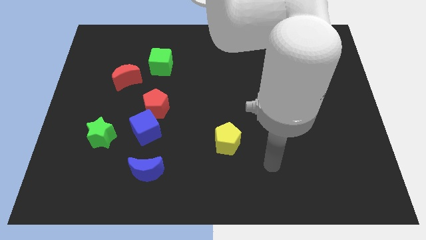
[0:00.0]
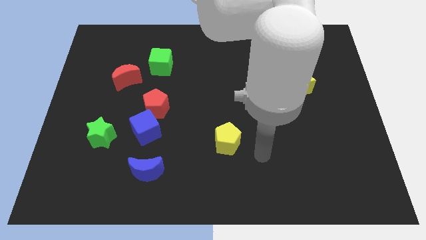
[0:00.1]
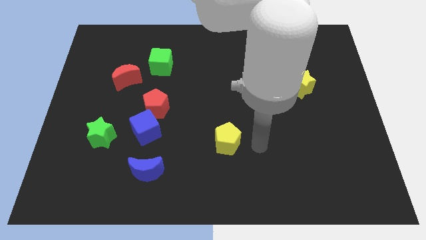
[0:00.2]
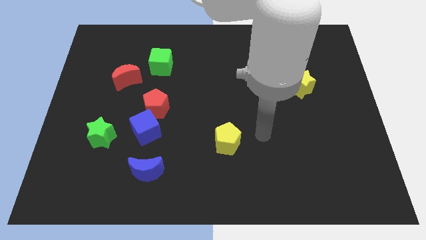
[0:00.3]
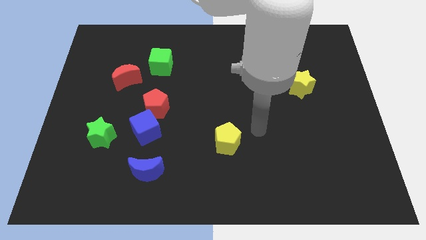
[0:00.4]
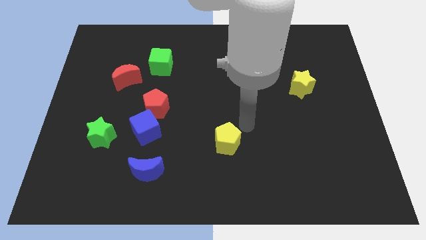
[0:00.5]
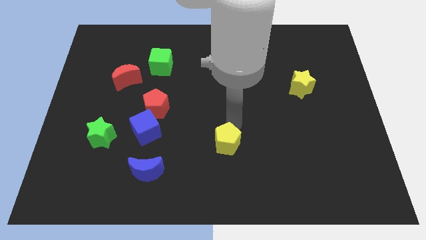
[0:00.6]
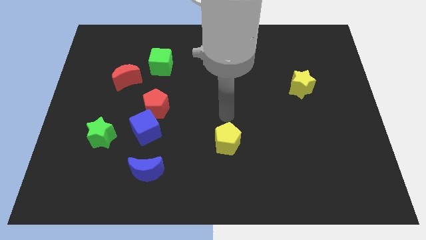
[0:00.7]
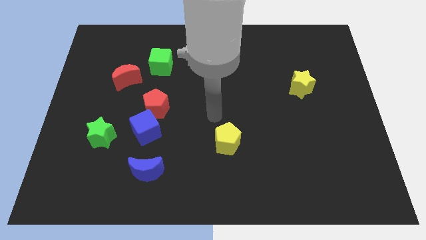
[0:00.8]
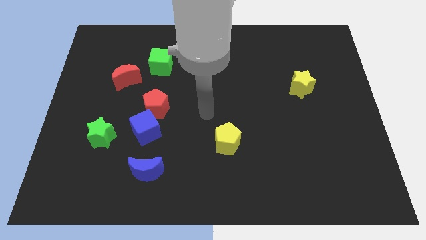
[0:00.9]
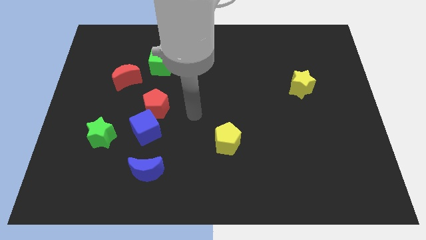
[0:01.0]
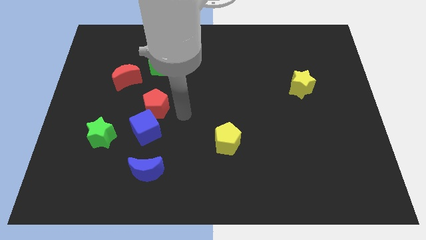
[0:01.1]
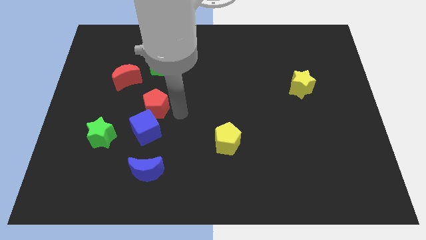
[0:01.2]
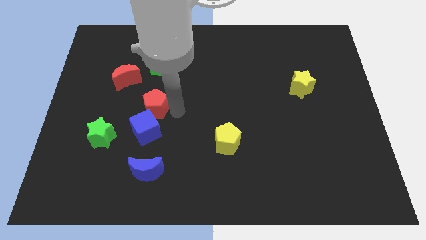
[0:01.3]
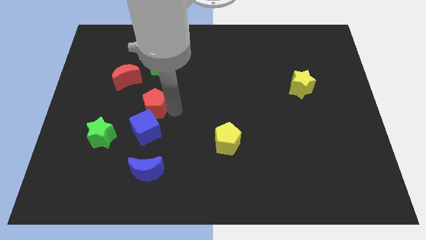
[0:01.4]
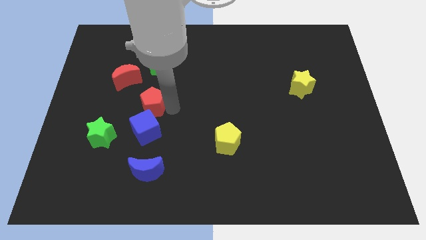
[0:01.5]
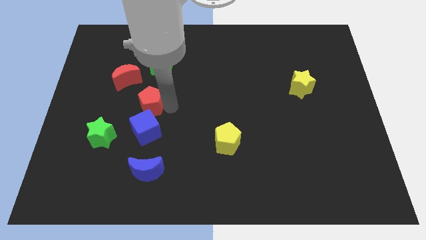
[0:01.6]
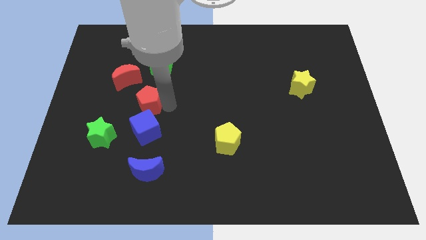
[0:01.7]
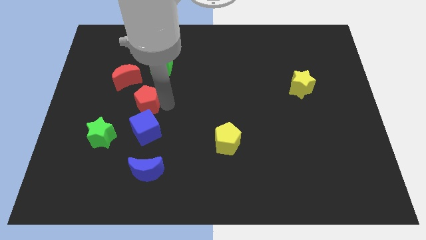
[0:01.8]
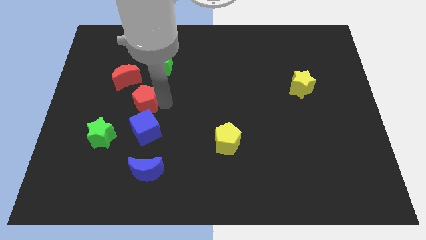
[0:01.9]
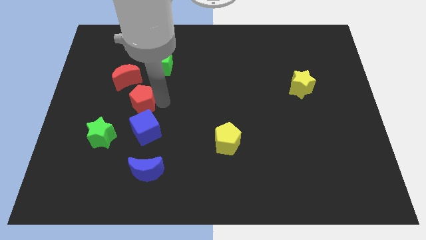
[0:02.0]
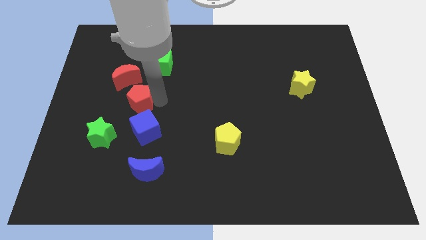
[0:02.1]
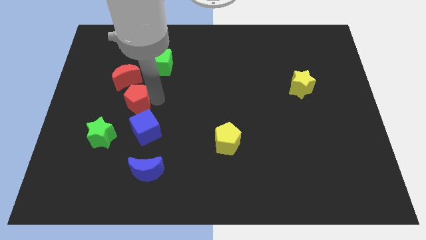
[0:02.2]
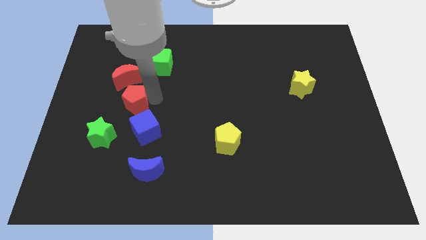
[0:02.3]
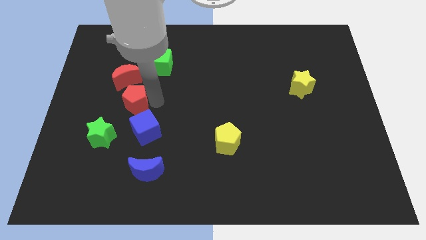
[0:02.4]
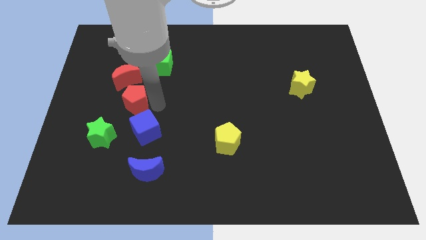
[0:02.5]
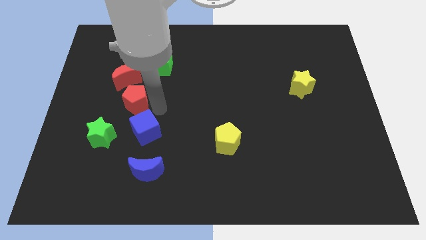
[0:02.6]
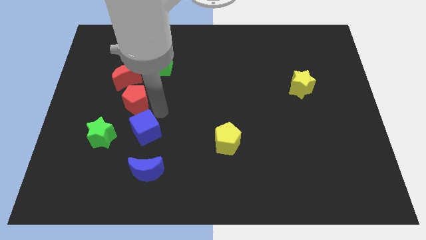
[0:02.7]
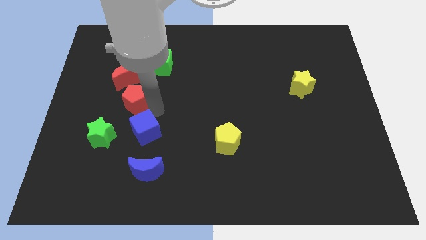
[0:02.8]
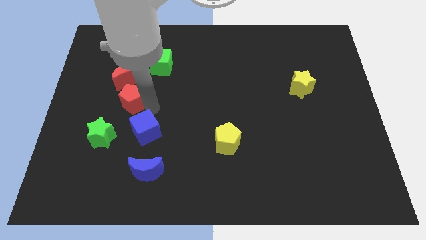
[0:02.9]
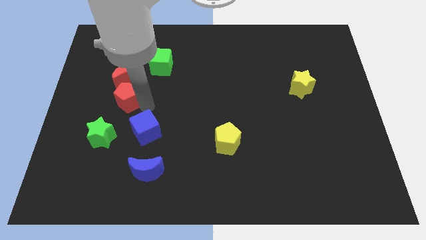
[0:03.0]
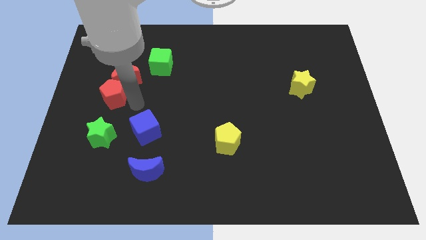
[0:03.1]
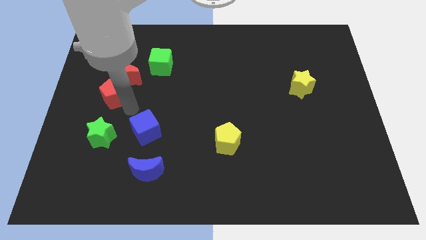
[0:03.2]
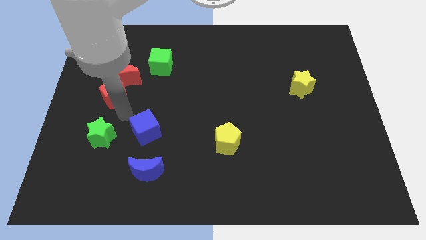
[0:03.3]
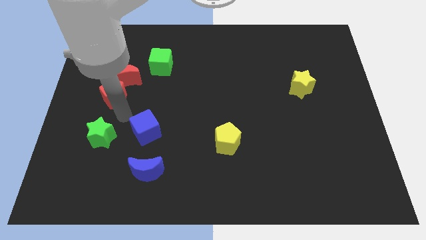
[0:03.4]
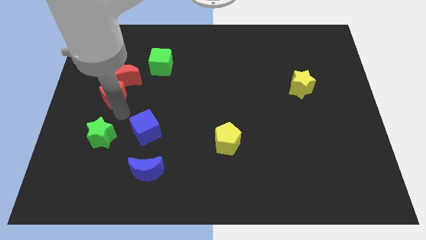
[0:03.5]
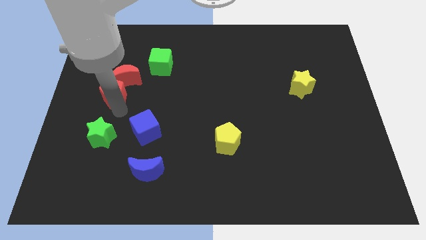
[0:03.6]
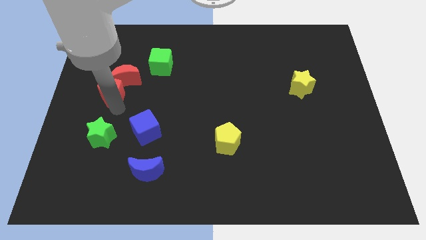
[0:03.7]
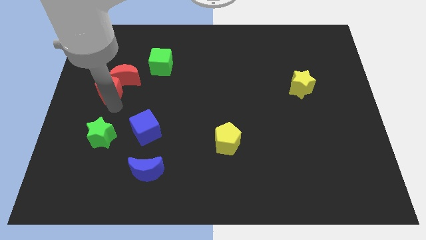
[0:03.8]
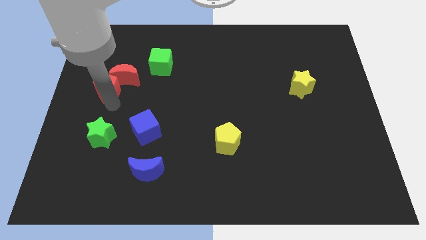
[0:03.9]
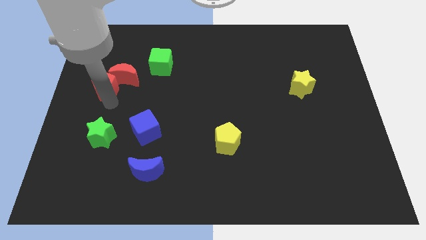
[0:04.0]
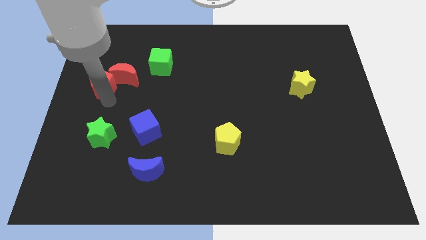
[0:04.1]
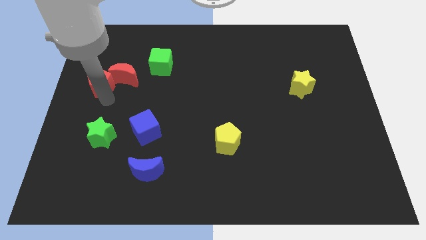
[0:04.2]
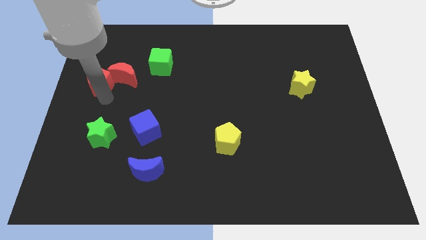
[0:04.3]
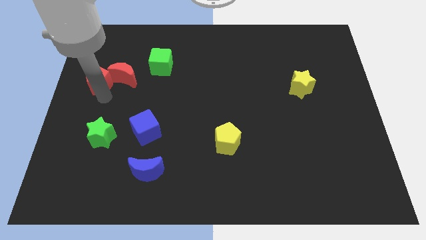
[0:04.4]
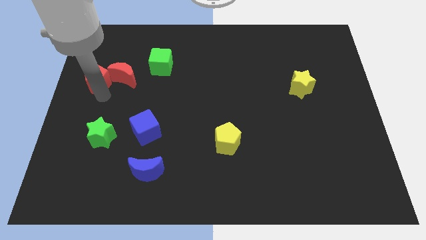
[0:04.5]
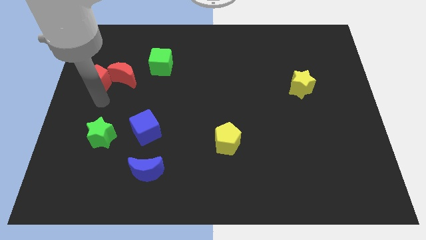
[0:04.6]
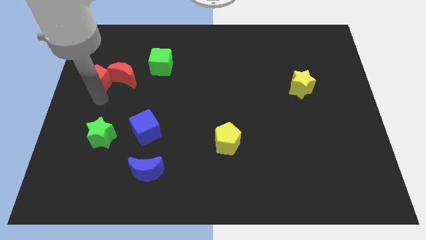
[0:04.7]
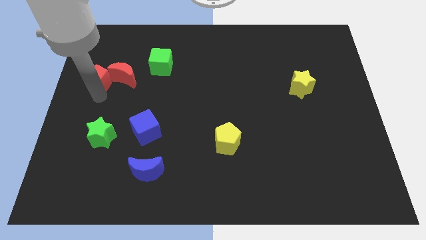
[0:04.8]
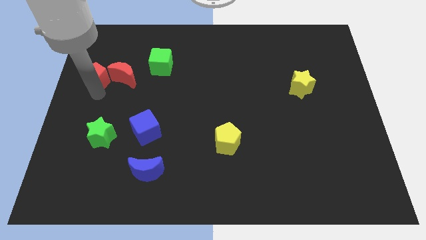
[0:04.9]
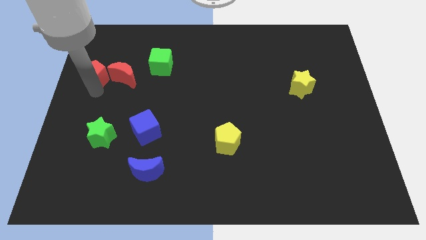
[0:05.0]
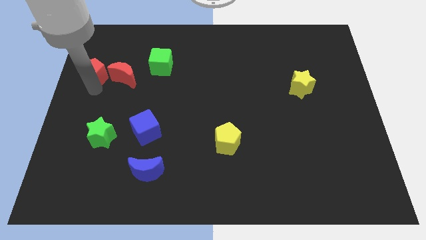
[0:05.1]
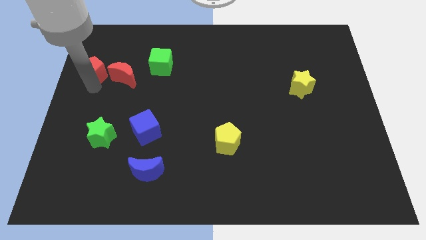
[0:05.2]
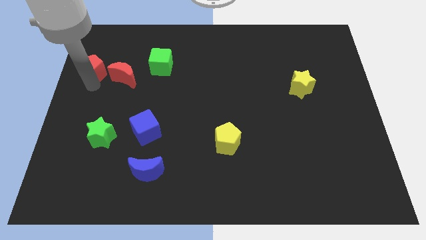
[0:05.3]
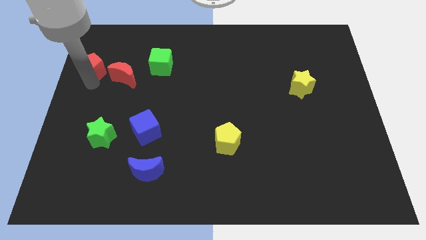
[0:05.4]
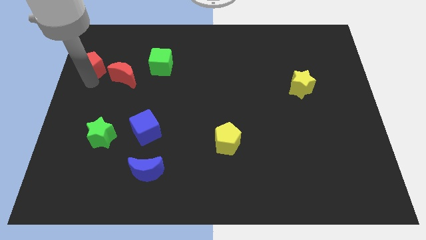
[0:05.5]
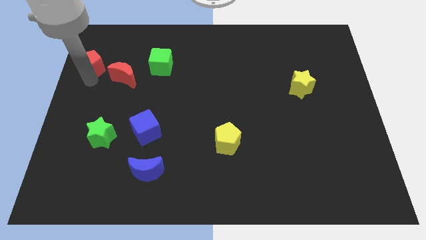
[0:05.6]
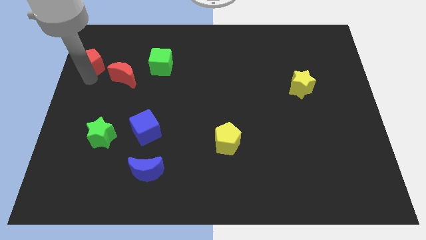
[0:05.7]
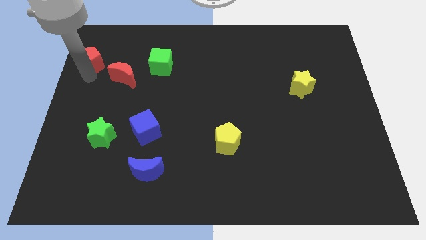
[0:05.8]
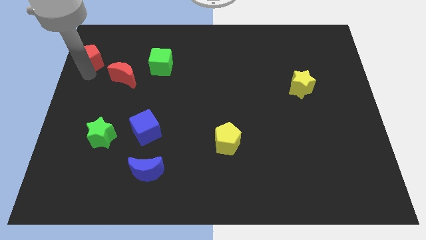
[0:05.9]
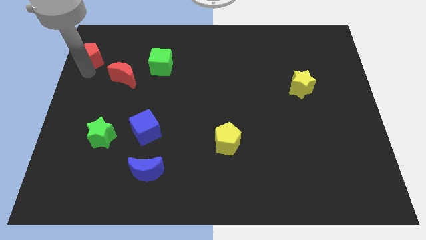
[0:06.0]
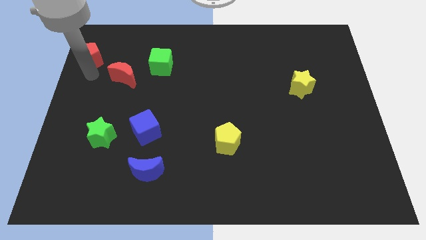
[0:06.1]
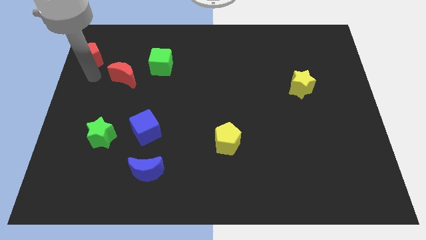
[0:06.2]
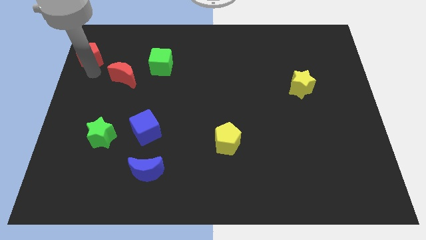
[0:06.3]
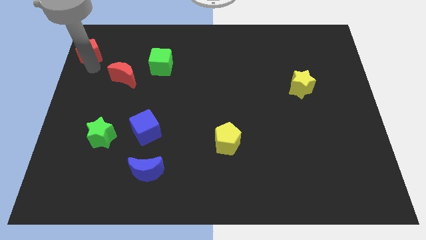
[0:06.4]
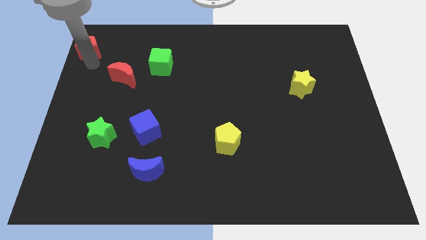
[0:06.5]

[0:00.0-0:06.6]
slide the red pentagon to the top left corner
